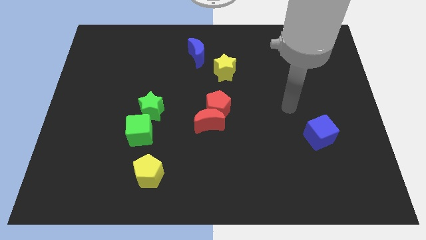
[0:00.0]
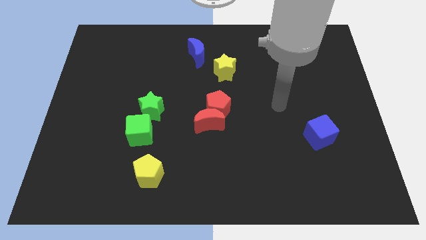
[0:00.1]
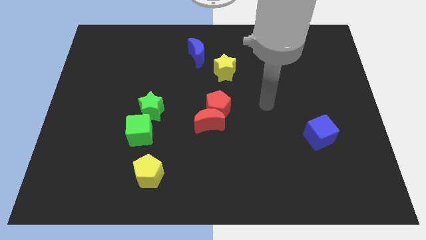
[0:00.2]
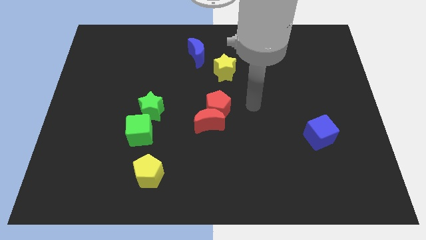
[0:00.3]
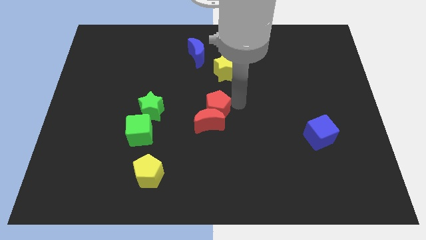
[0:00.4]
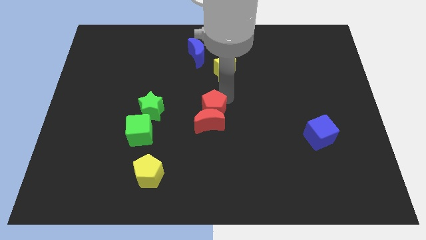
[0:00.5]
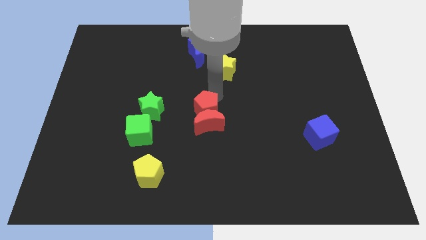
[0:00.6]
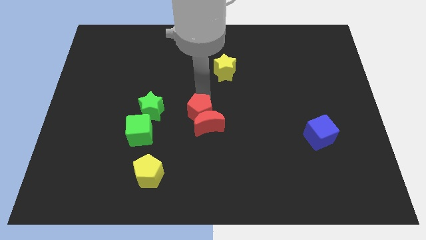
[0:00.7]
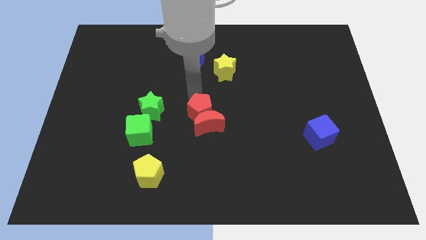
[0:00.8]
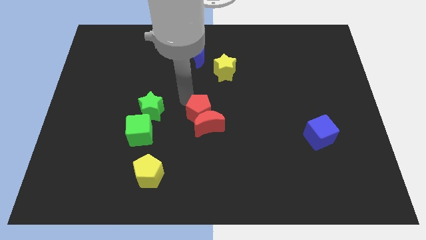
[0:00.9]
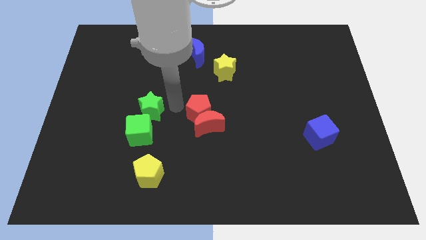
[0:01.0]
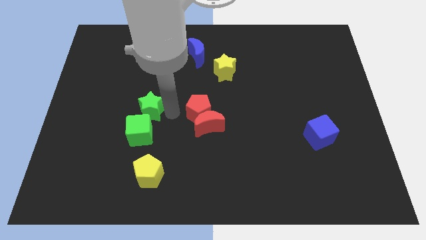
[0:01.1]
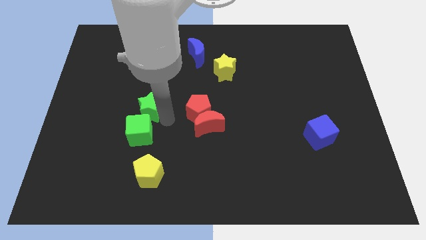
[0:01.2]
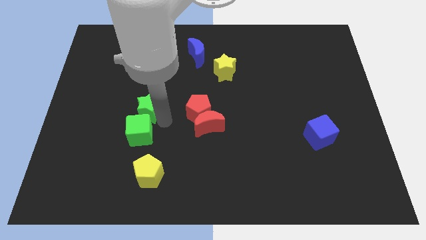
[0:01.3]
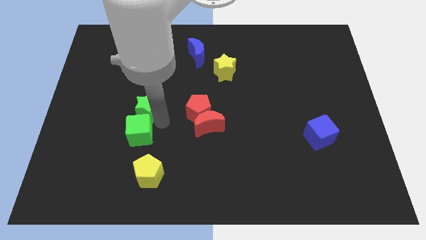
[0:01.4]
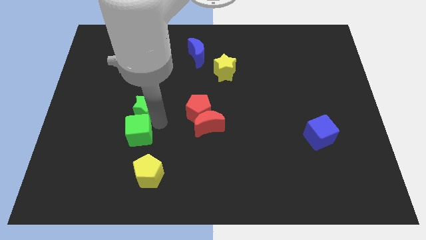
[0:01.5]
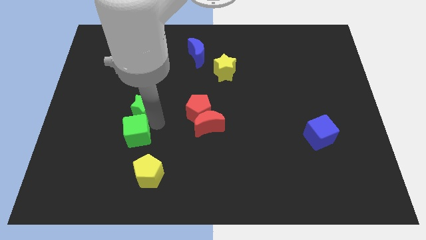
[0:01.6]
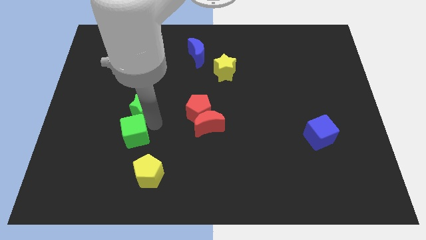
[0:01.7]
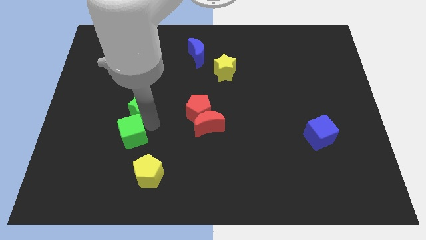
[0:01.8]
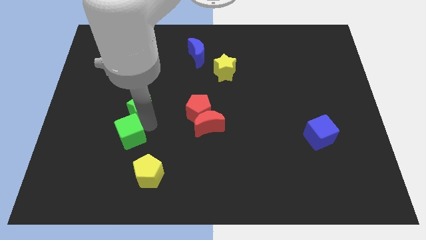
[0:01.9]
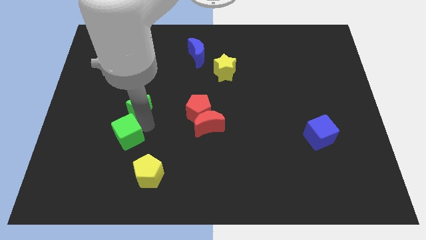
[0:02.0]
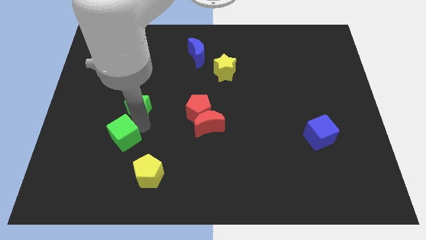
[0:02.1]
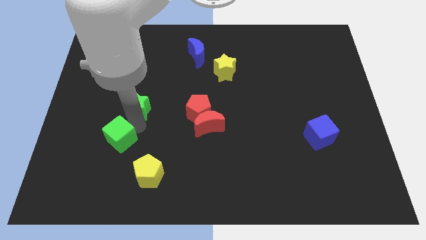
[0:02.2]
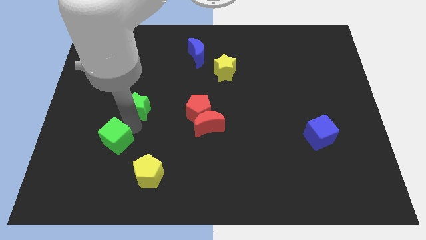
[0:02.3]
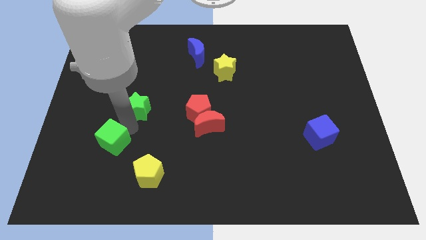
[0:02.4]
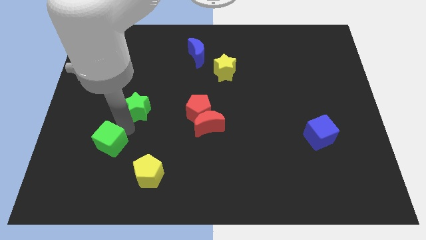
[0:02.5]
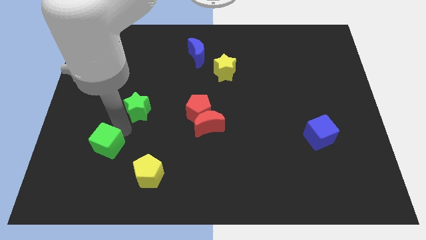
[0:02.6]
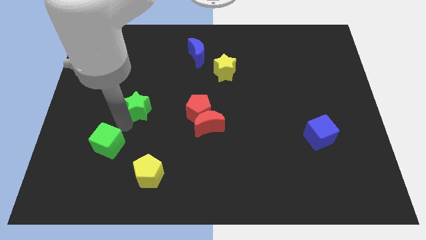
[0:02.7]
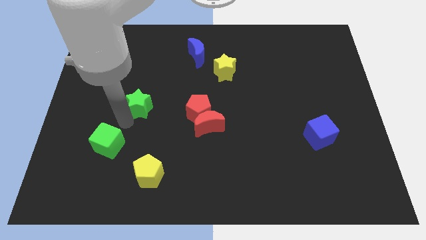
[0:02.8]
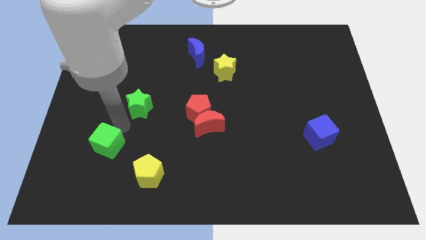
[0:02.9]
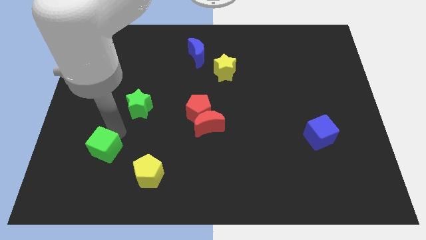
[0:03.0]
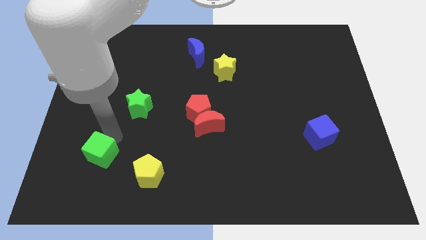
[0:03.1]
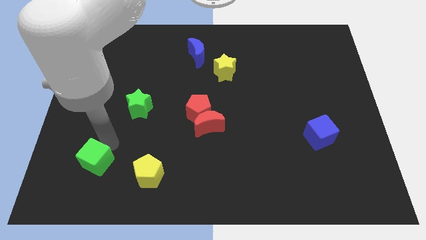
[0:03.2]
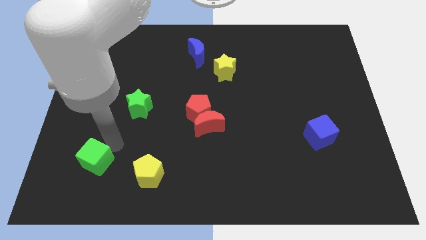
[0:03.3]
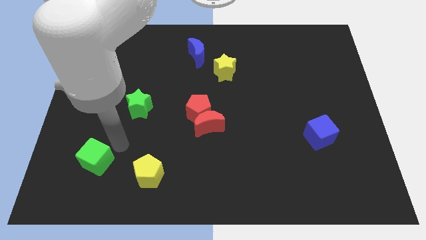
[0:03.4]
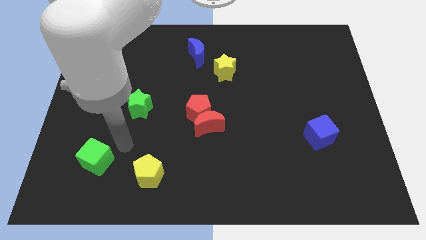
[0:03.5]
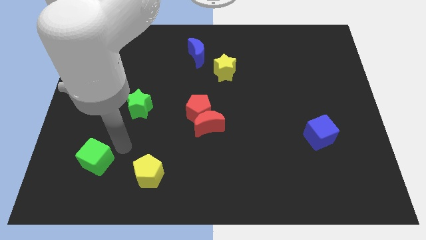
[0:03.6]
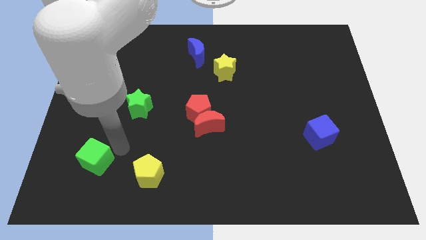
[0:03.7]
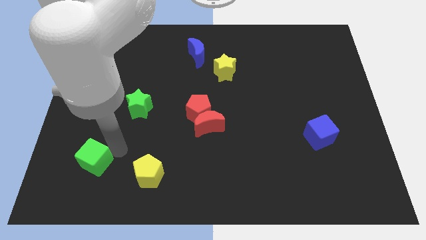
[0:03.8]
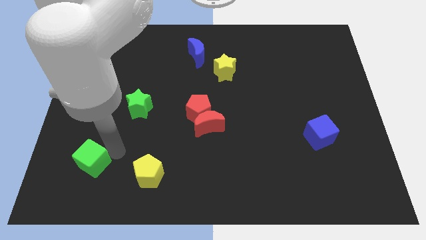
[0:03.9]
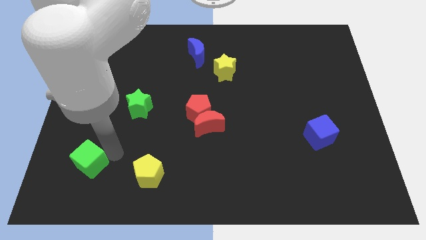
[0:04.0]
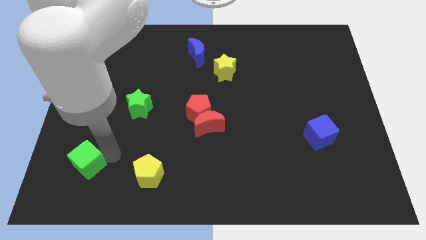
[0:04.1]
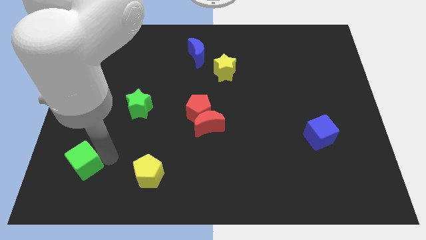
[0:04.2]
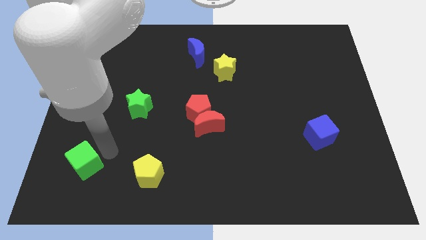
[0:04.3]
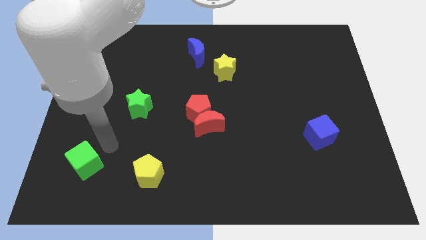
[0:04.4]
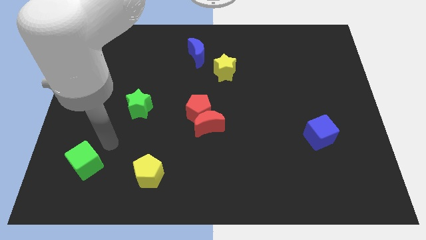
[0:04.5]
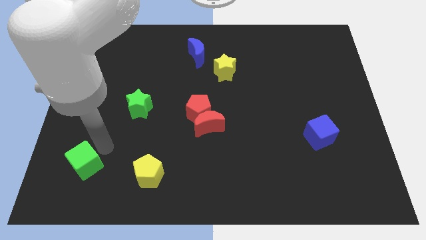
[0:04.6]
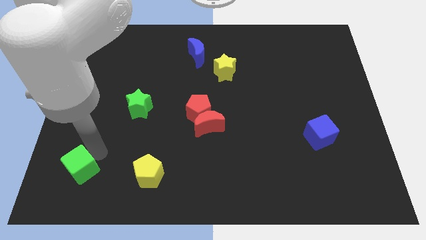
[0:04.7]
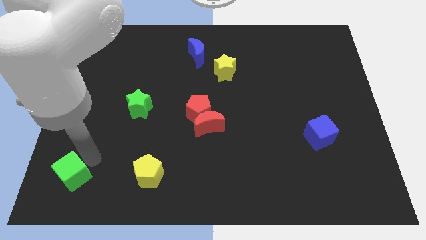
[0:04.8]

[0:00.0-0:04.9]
put the green cube to the bottom left of the board

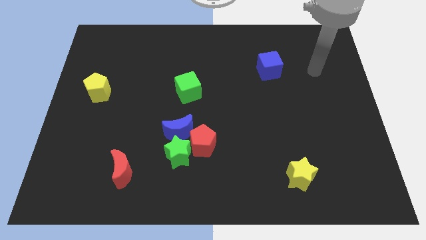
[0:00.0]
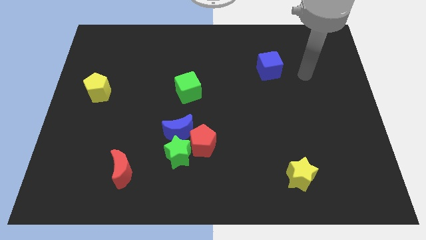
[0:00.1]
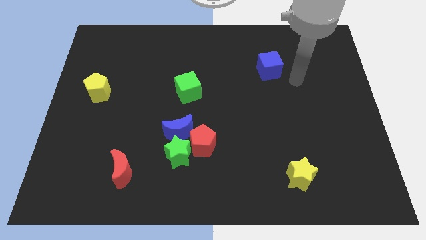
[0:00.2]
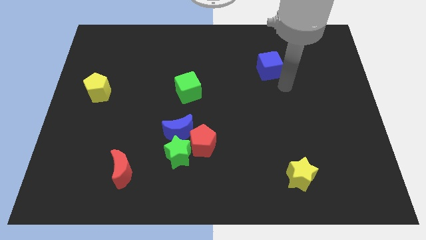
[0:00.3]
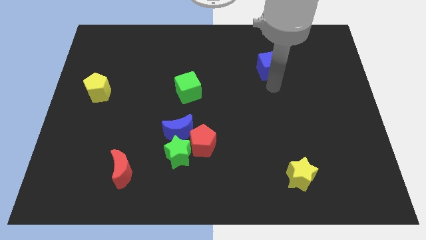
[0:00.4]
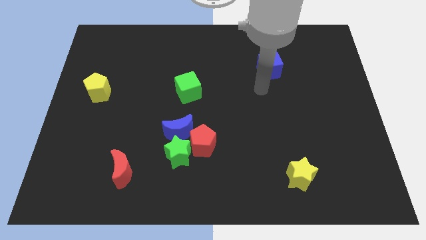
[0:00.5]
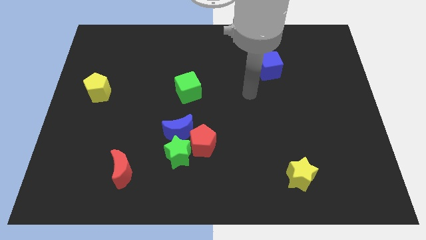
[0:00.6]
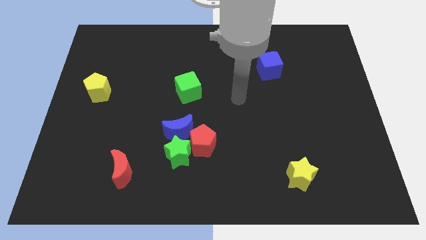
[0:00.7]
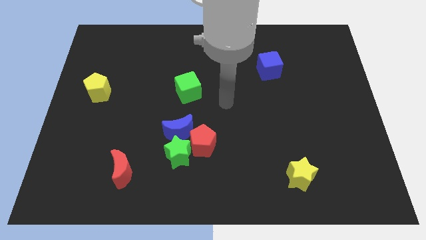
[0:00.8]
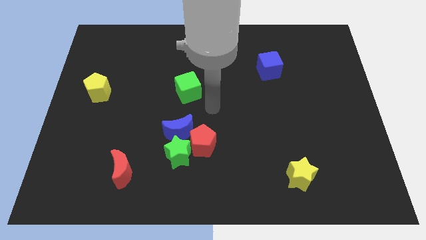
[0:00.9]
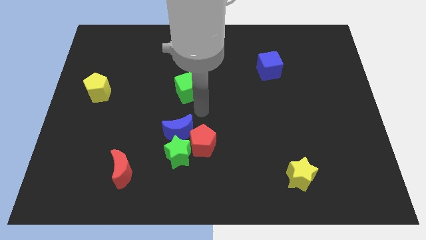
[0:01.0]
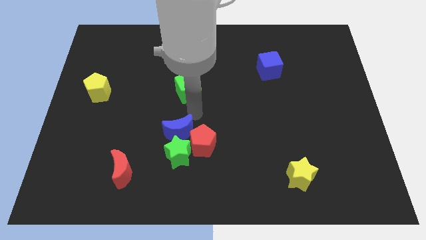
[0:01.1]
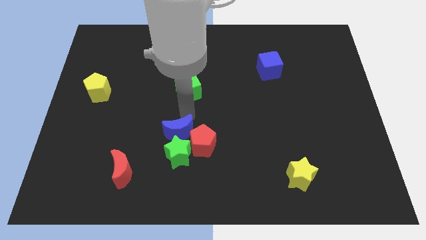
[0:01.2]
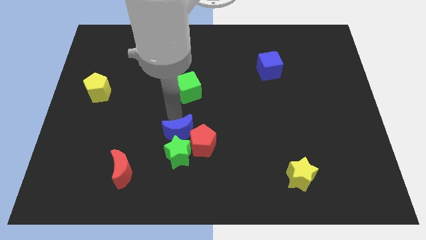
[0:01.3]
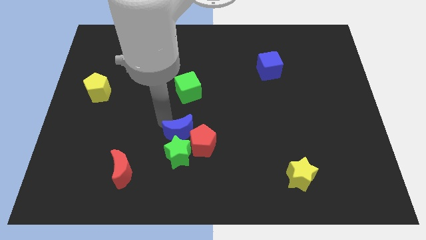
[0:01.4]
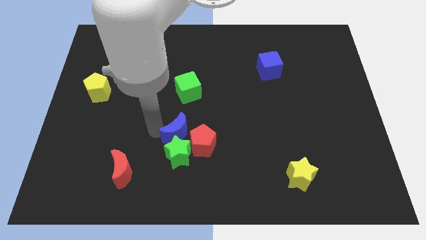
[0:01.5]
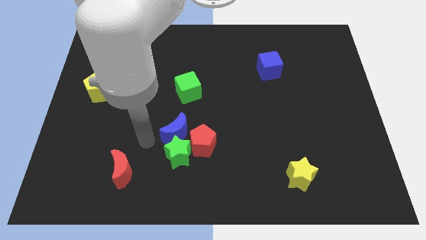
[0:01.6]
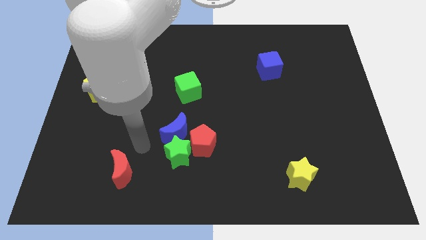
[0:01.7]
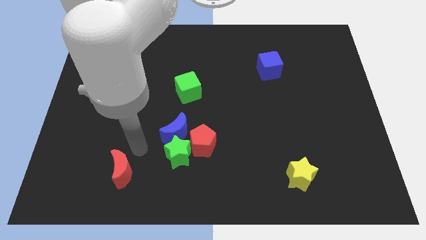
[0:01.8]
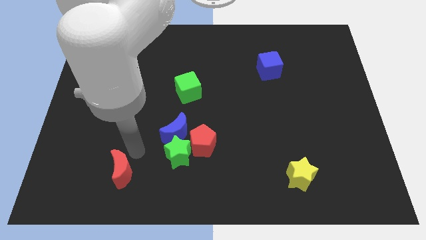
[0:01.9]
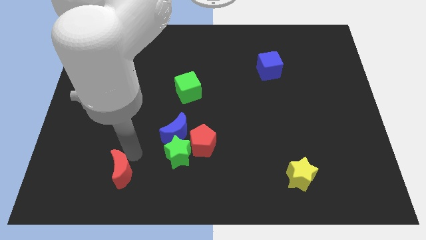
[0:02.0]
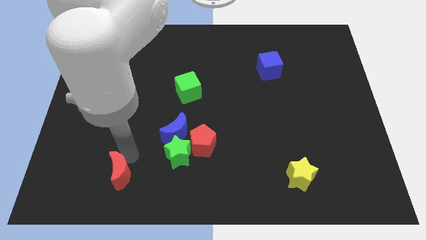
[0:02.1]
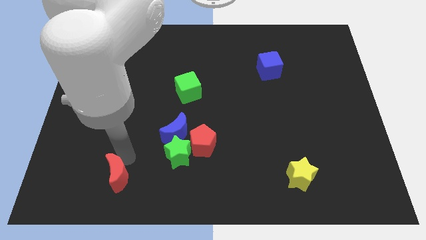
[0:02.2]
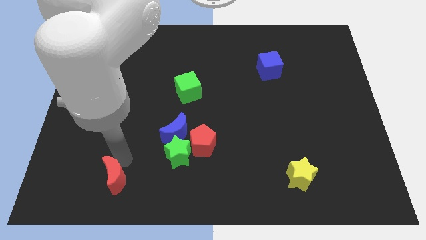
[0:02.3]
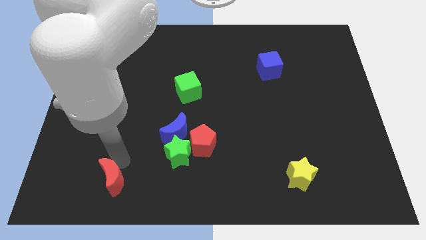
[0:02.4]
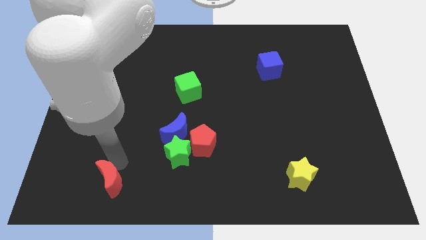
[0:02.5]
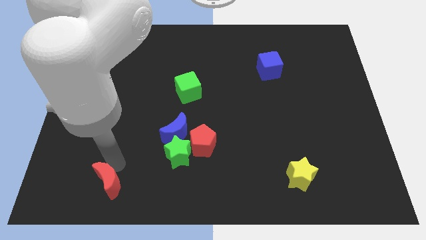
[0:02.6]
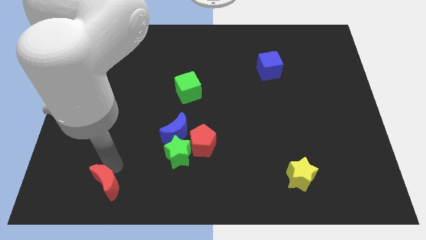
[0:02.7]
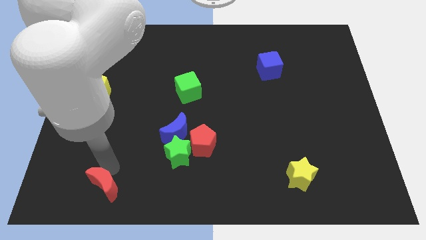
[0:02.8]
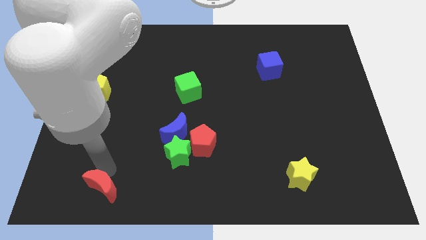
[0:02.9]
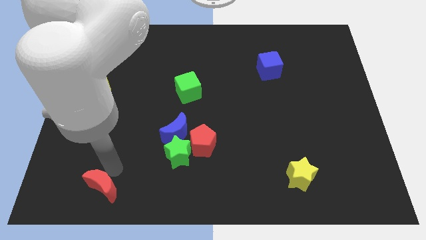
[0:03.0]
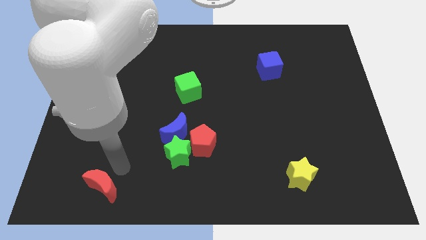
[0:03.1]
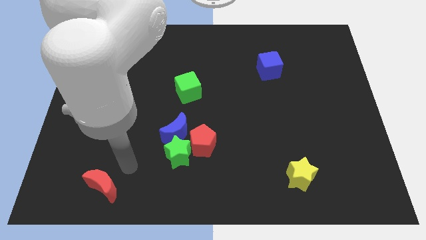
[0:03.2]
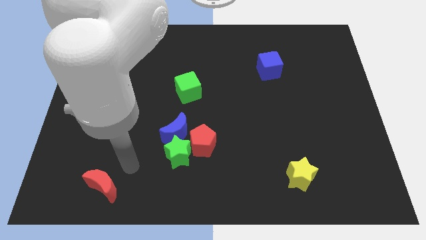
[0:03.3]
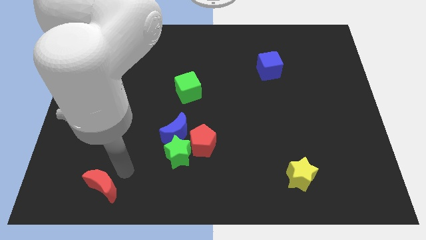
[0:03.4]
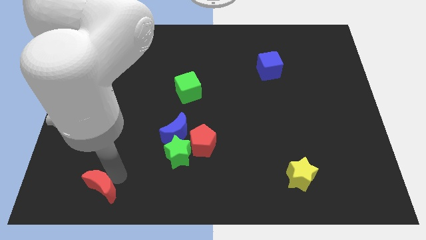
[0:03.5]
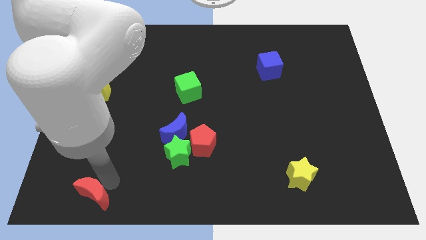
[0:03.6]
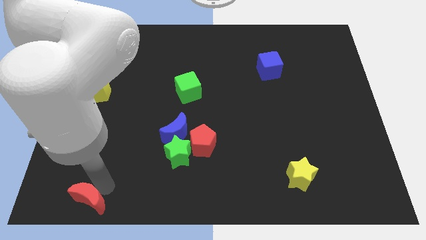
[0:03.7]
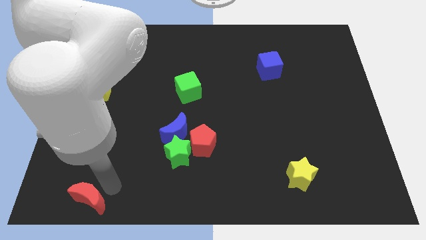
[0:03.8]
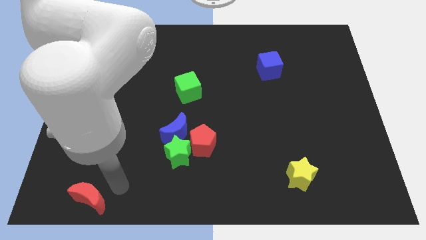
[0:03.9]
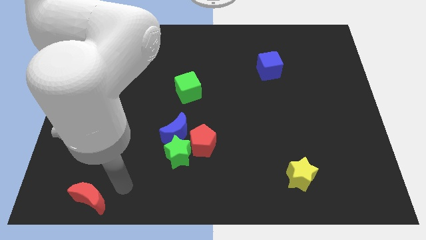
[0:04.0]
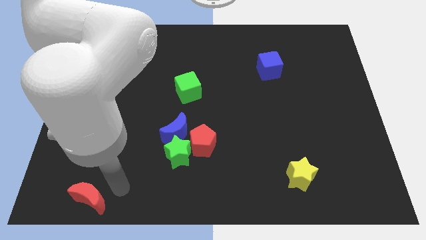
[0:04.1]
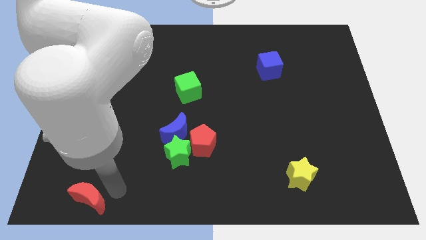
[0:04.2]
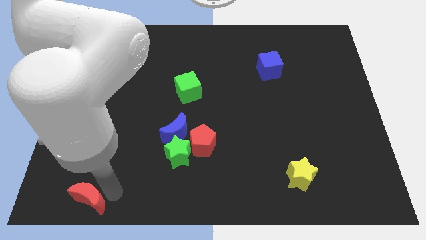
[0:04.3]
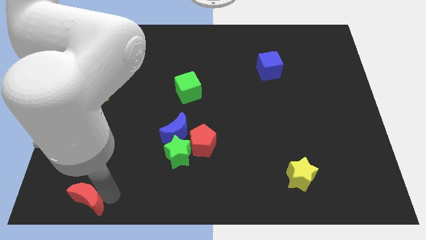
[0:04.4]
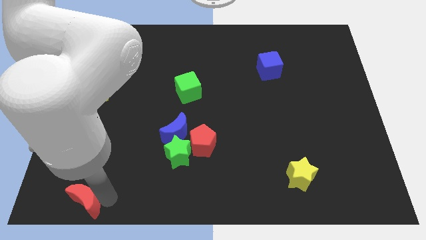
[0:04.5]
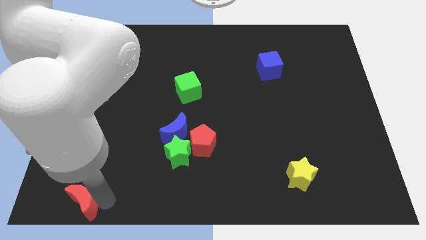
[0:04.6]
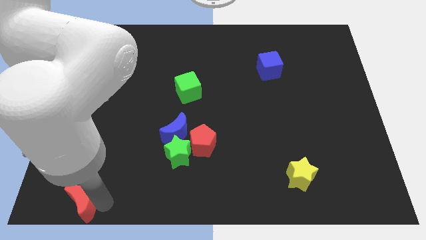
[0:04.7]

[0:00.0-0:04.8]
push the red moon to the bottom left of the board
